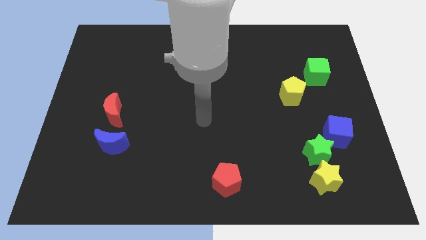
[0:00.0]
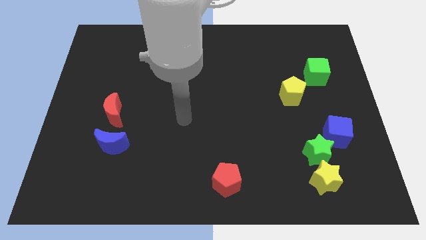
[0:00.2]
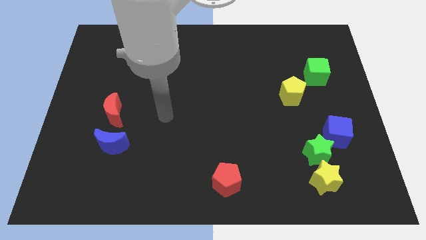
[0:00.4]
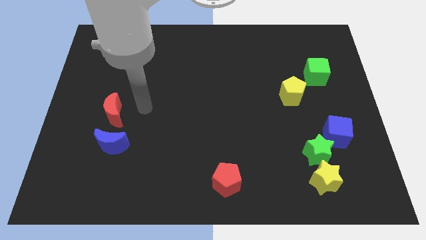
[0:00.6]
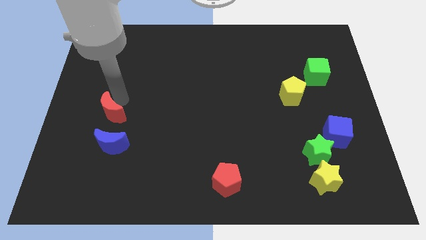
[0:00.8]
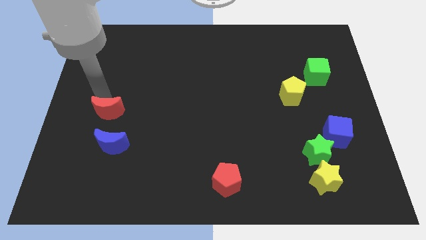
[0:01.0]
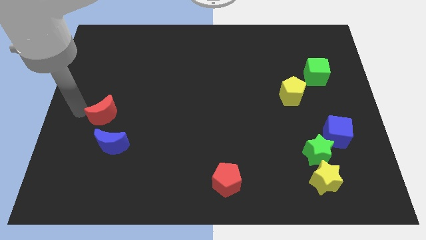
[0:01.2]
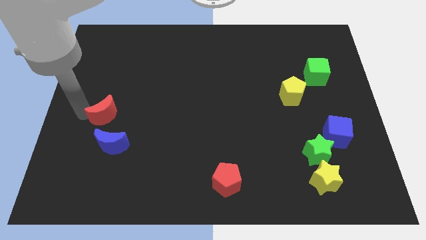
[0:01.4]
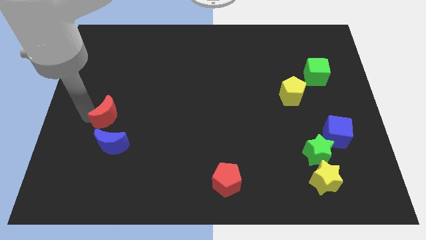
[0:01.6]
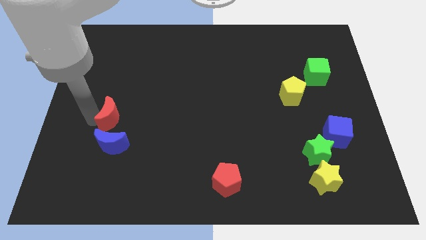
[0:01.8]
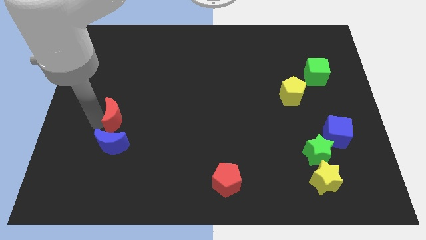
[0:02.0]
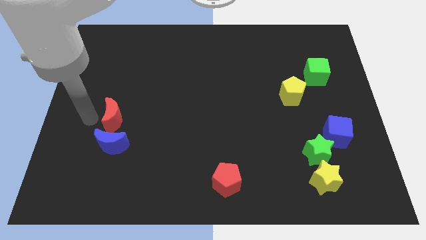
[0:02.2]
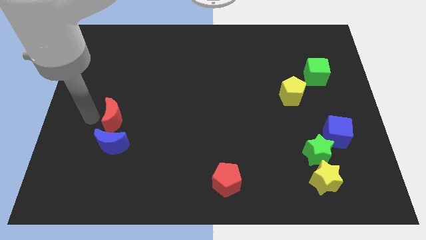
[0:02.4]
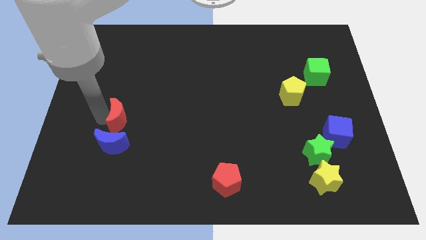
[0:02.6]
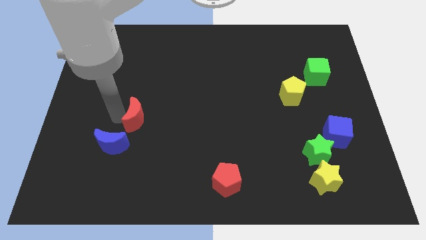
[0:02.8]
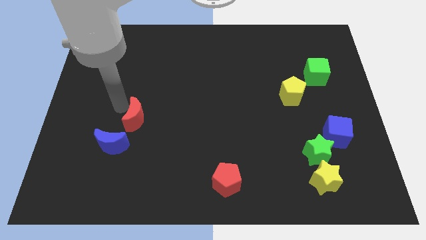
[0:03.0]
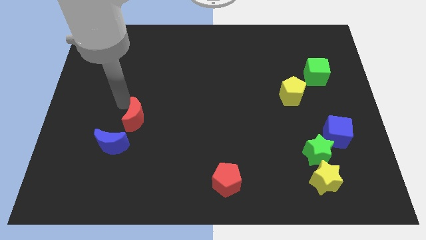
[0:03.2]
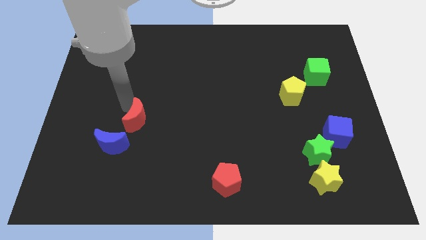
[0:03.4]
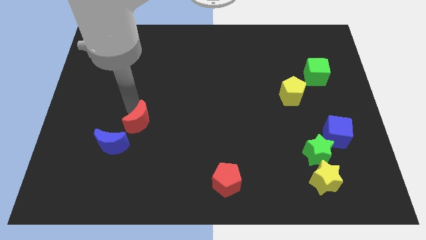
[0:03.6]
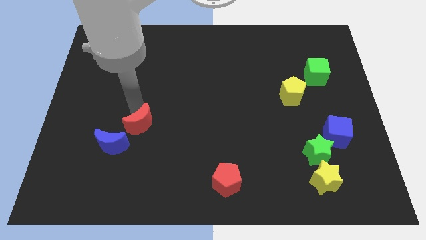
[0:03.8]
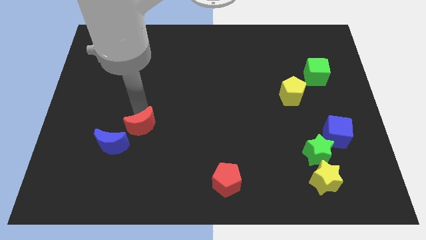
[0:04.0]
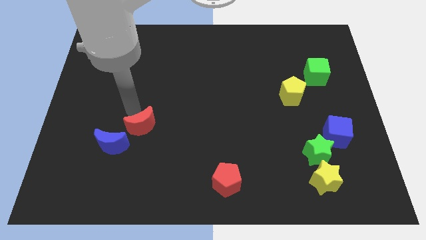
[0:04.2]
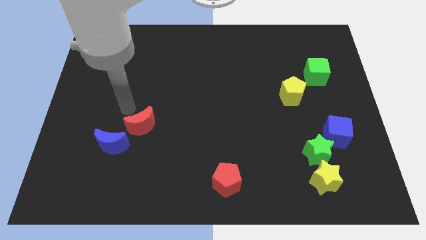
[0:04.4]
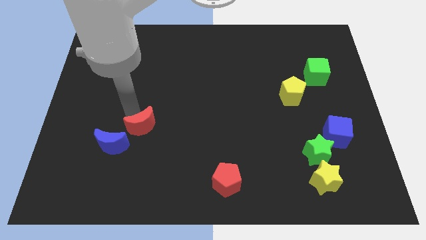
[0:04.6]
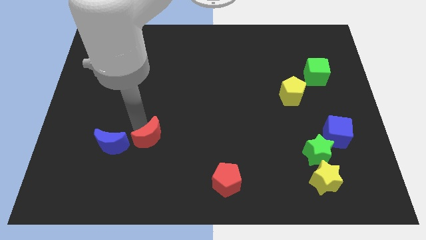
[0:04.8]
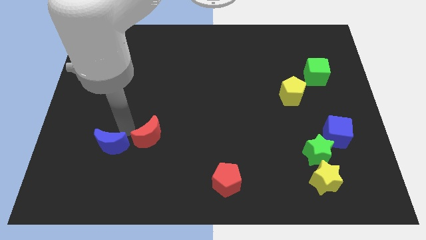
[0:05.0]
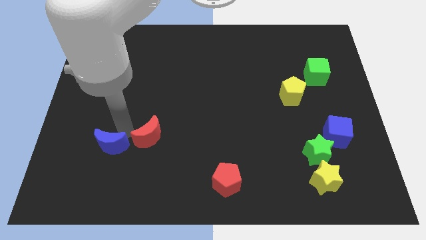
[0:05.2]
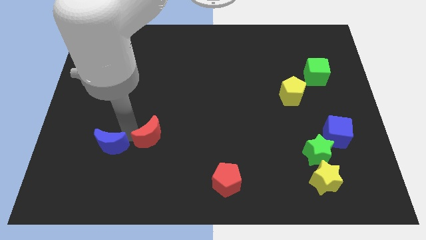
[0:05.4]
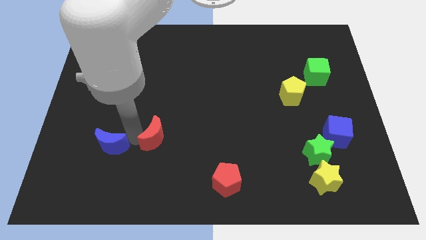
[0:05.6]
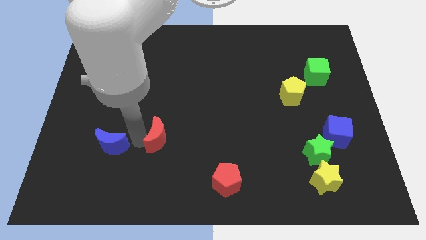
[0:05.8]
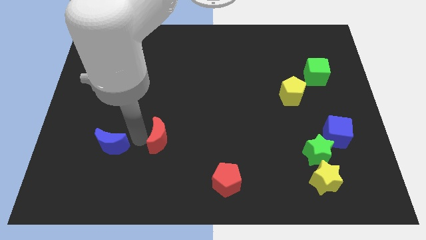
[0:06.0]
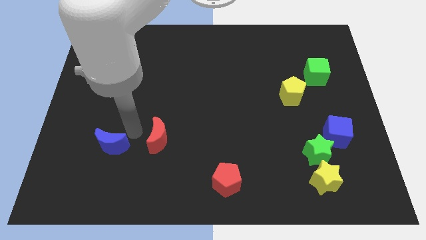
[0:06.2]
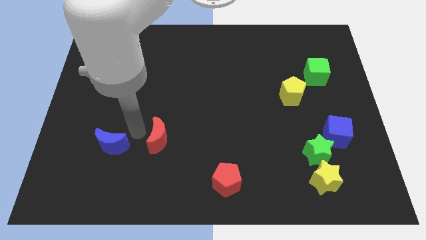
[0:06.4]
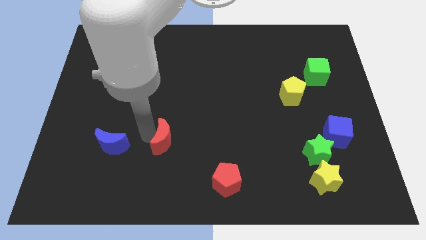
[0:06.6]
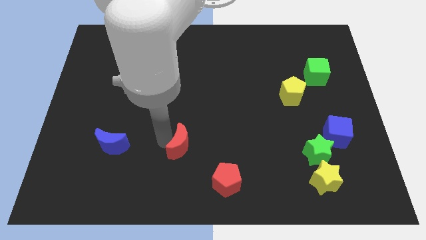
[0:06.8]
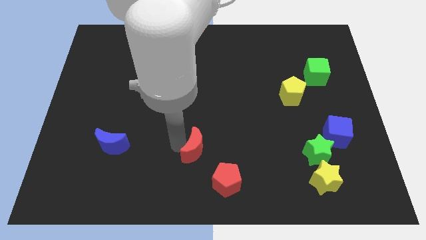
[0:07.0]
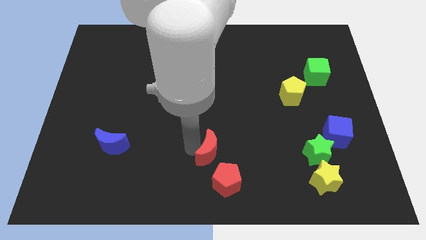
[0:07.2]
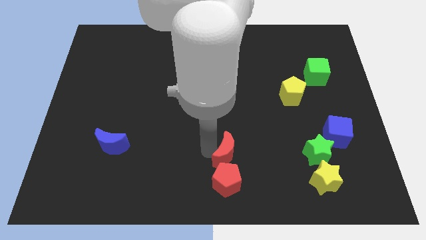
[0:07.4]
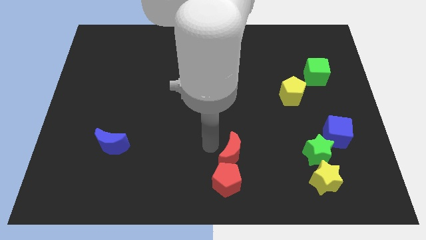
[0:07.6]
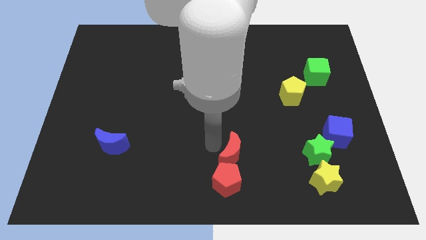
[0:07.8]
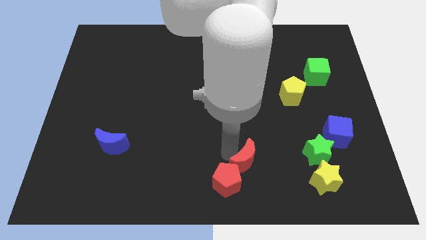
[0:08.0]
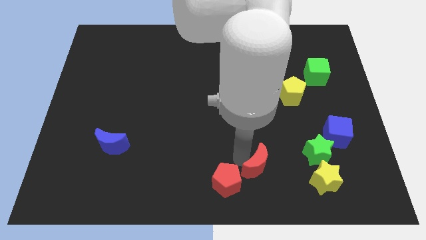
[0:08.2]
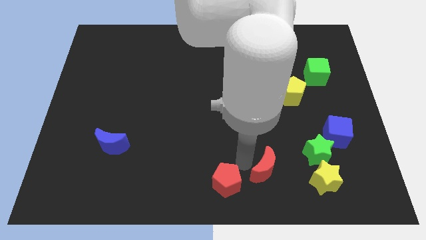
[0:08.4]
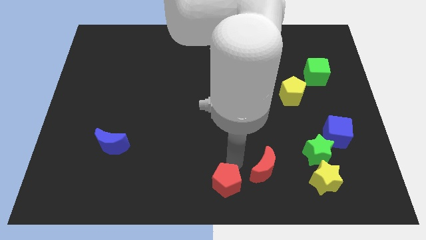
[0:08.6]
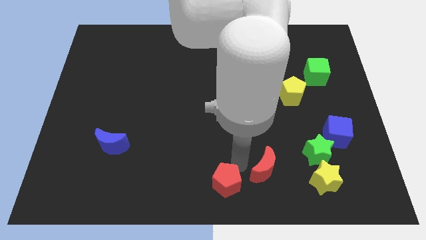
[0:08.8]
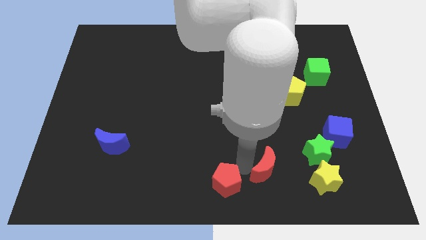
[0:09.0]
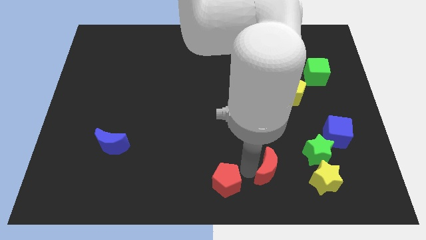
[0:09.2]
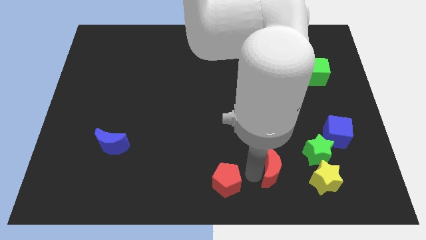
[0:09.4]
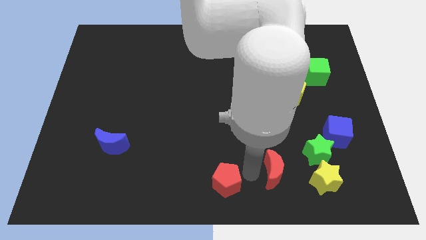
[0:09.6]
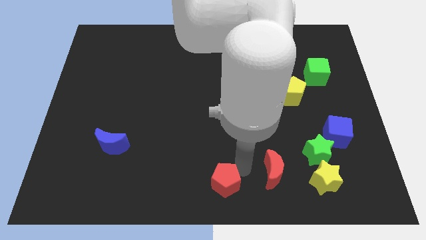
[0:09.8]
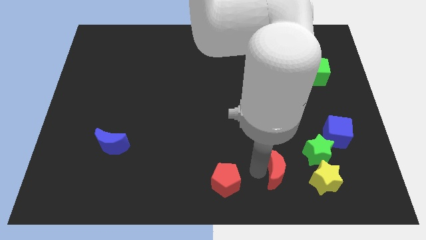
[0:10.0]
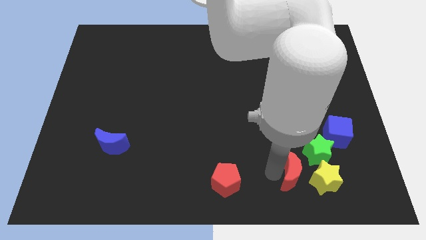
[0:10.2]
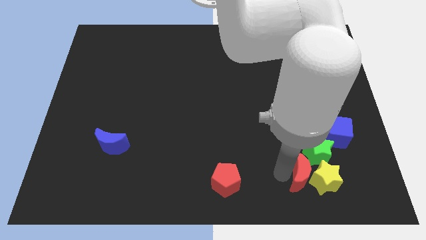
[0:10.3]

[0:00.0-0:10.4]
put the red moon to the yellow star

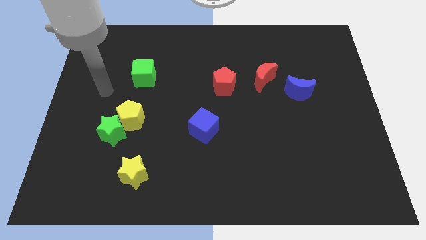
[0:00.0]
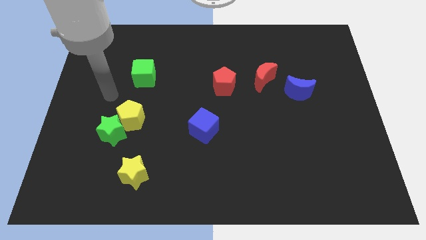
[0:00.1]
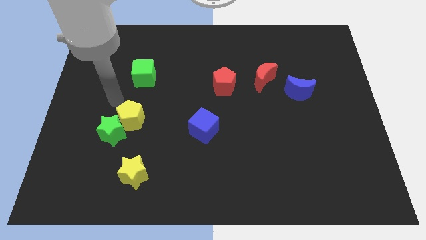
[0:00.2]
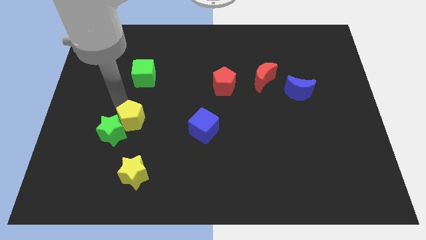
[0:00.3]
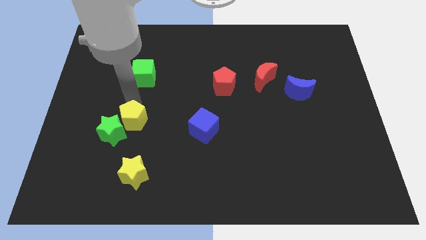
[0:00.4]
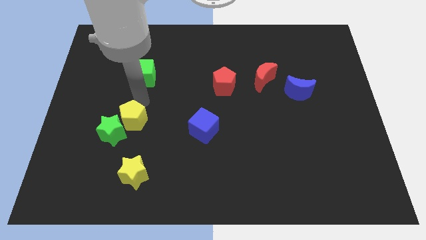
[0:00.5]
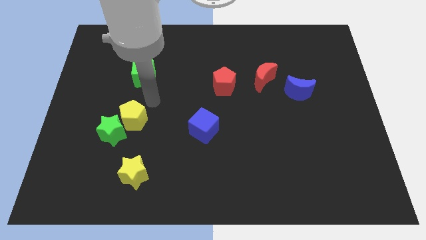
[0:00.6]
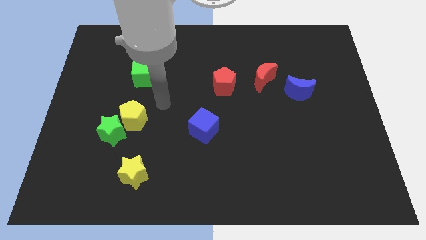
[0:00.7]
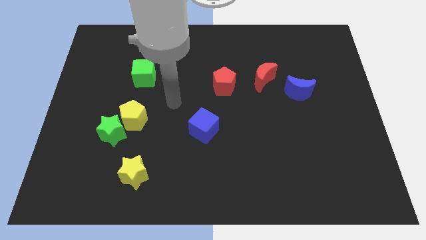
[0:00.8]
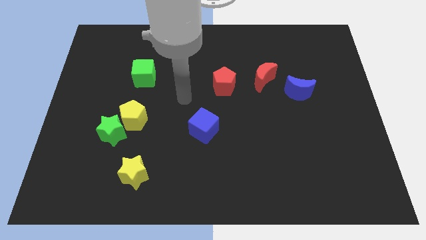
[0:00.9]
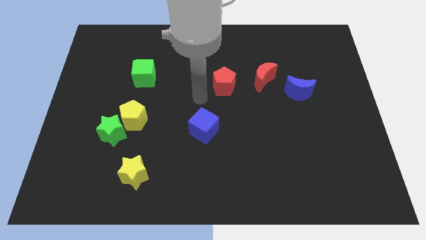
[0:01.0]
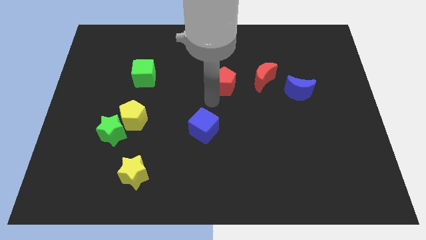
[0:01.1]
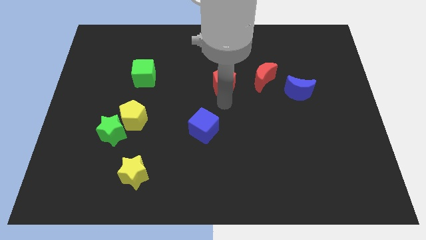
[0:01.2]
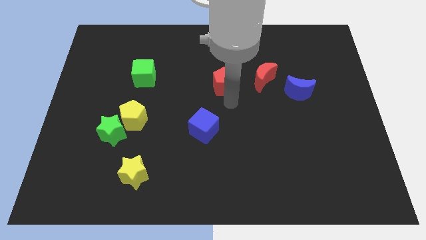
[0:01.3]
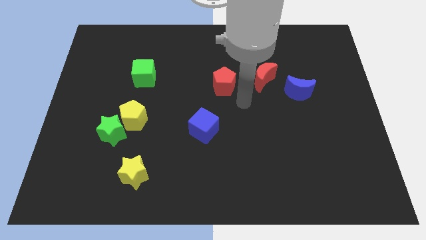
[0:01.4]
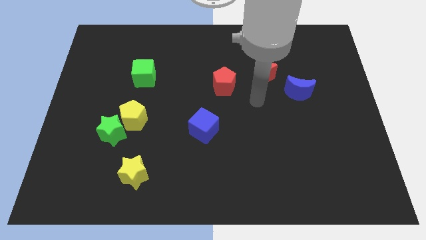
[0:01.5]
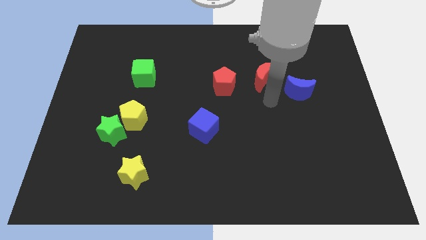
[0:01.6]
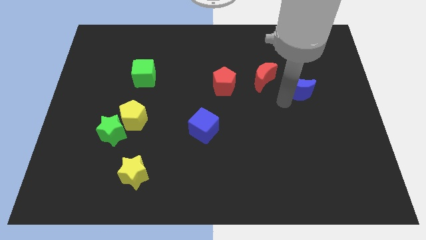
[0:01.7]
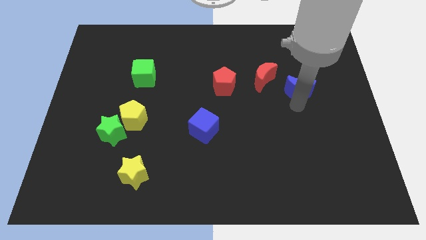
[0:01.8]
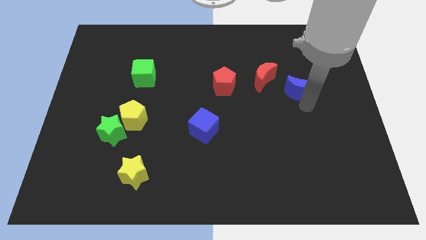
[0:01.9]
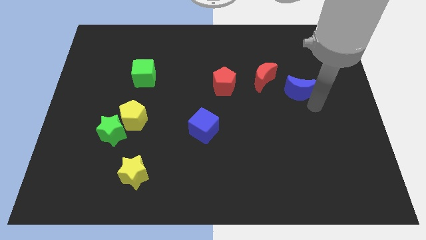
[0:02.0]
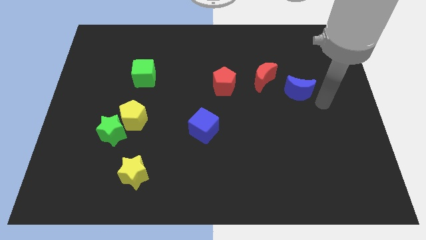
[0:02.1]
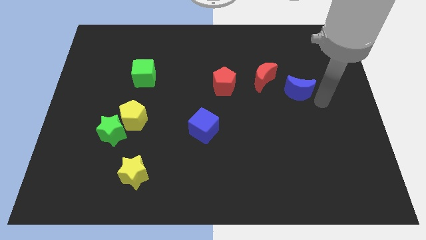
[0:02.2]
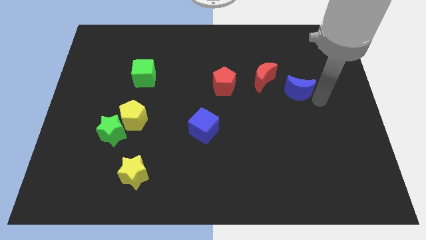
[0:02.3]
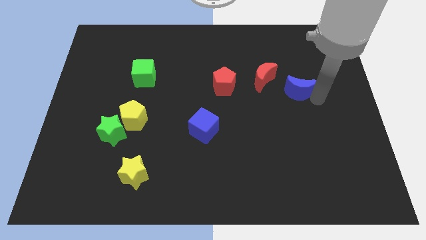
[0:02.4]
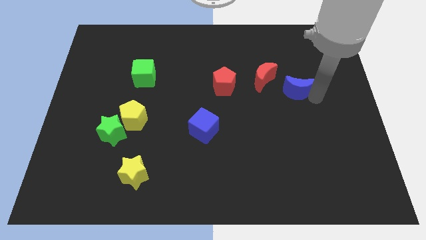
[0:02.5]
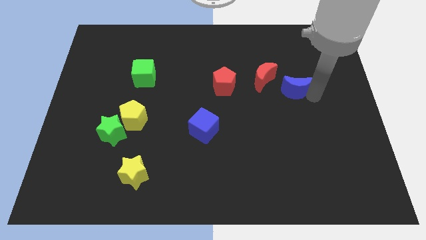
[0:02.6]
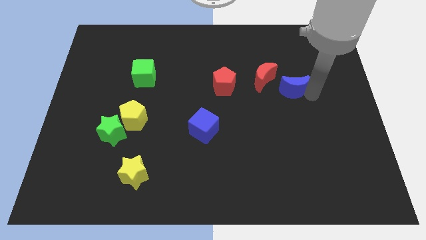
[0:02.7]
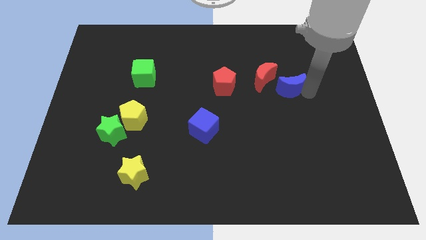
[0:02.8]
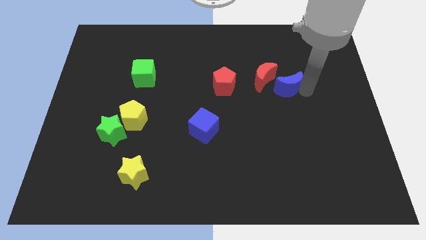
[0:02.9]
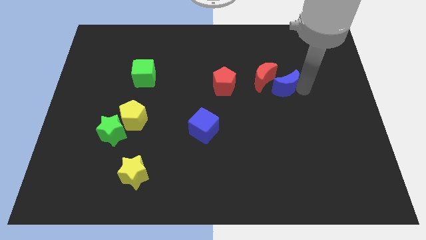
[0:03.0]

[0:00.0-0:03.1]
put the blue moon close to the red moon

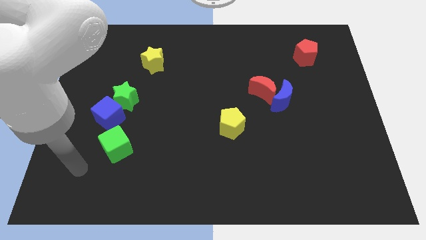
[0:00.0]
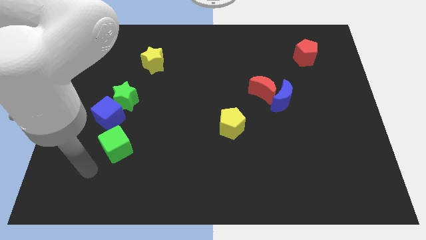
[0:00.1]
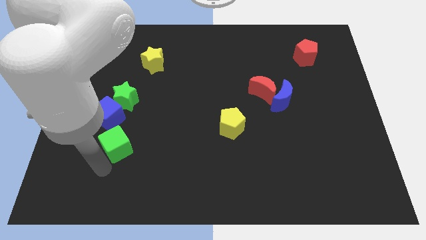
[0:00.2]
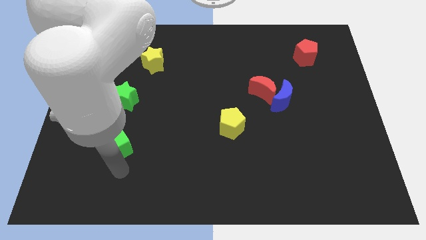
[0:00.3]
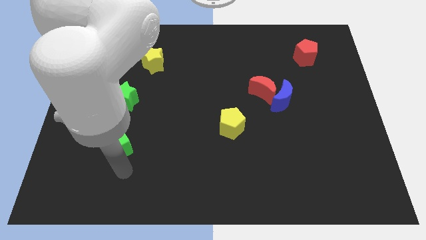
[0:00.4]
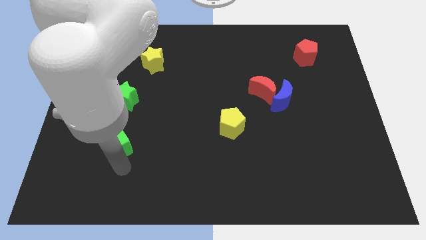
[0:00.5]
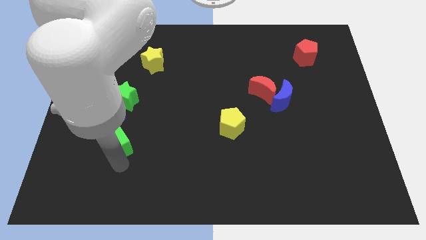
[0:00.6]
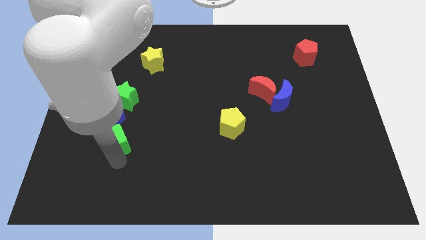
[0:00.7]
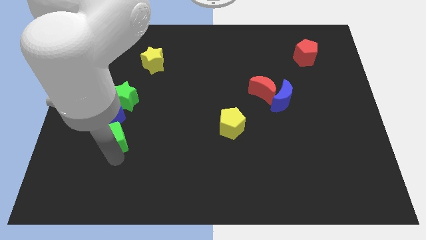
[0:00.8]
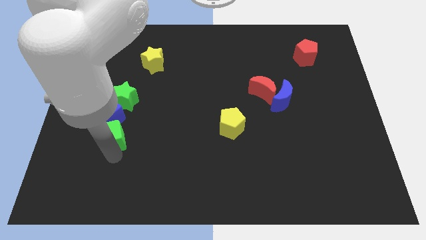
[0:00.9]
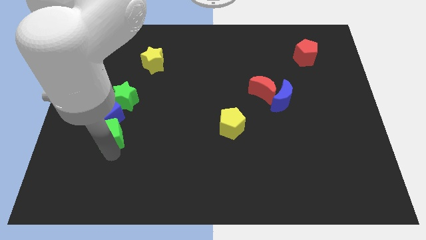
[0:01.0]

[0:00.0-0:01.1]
slide the green cube to the blue cube
